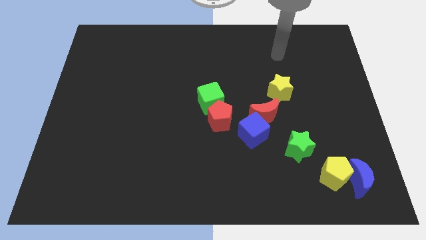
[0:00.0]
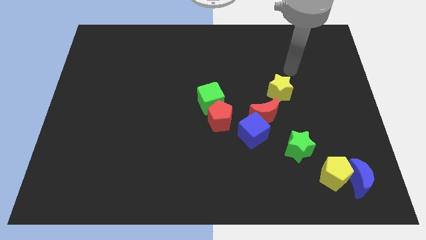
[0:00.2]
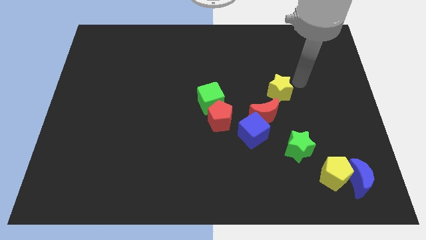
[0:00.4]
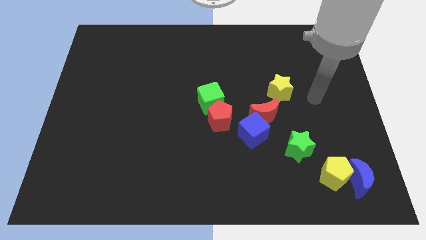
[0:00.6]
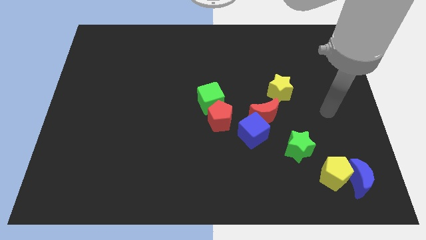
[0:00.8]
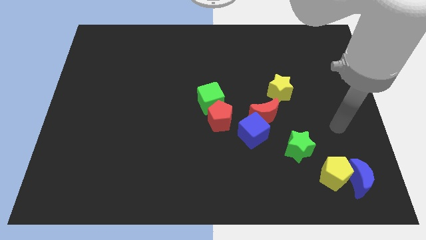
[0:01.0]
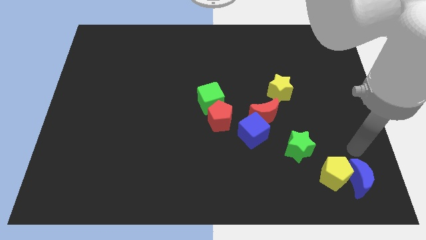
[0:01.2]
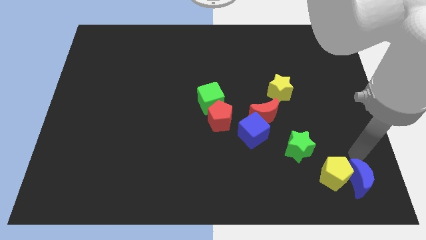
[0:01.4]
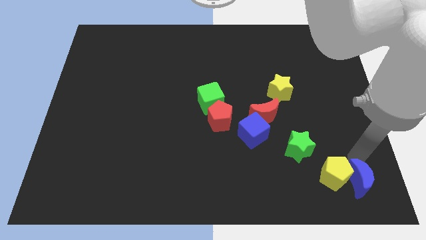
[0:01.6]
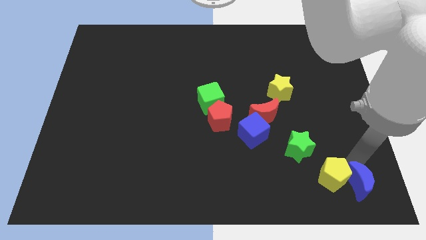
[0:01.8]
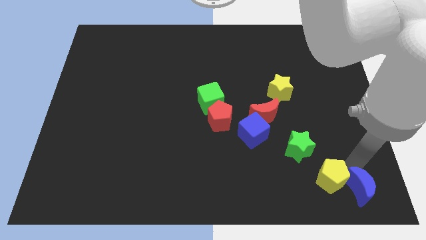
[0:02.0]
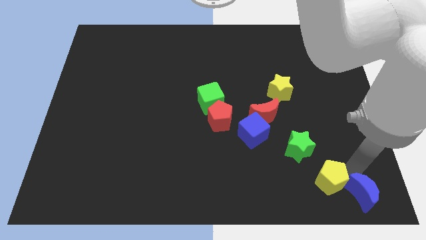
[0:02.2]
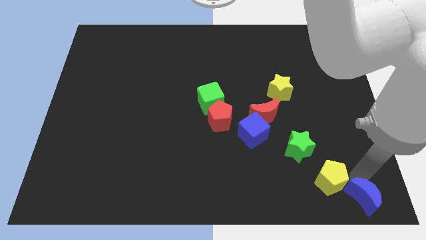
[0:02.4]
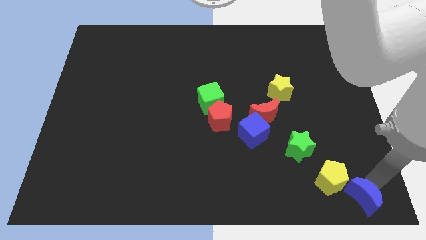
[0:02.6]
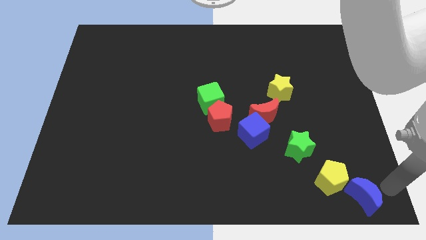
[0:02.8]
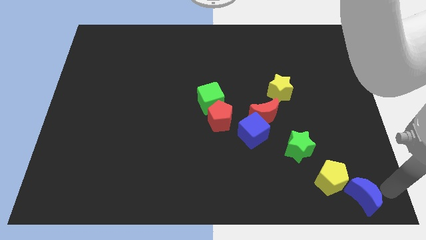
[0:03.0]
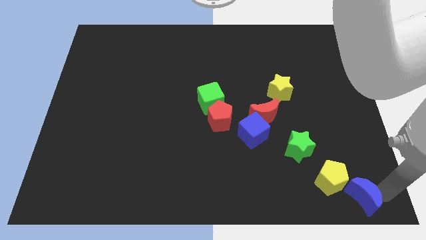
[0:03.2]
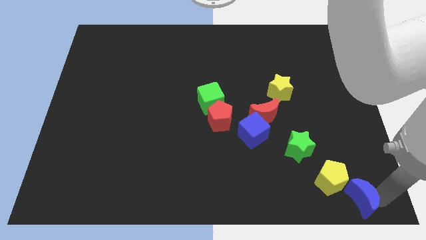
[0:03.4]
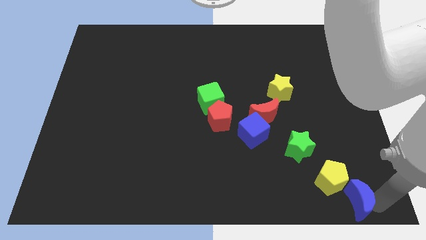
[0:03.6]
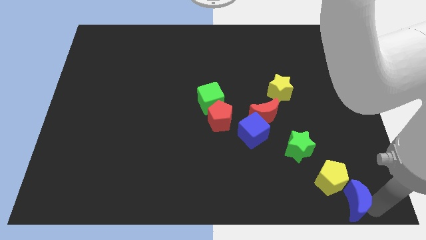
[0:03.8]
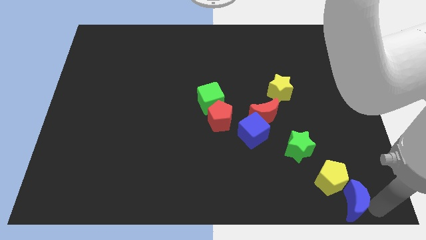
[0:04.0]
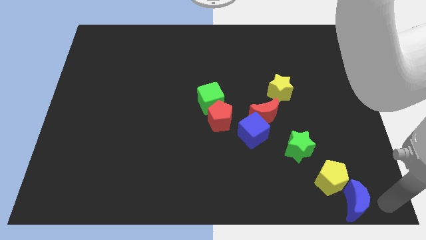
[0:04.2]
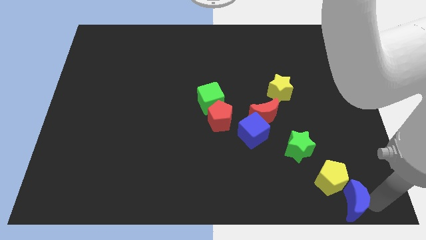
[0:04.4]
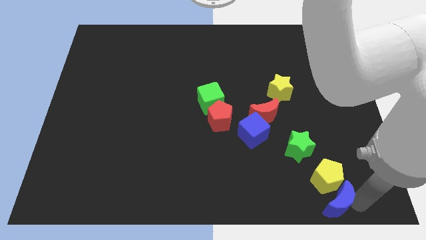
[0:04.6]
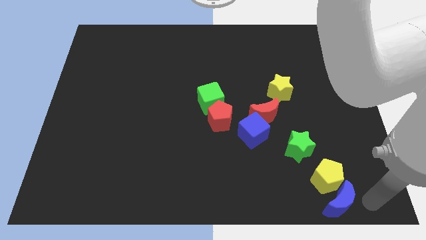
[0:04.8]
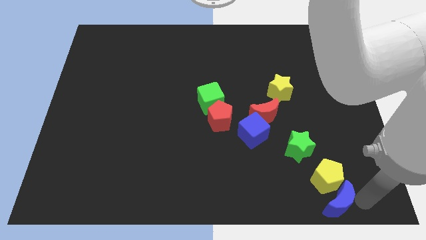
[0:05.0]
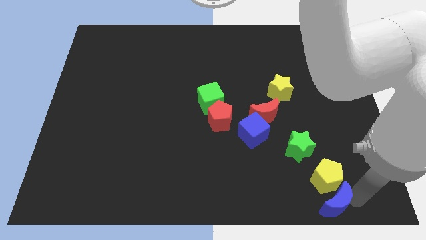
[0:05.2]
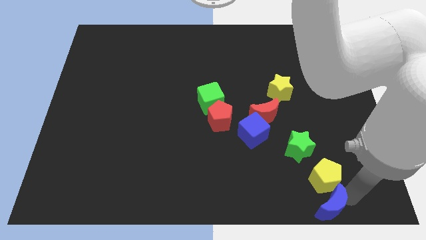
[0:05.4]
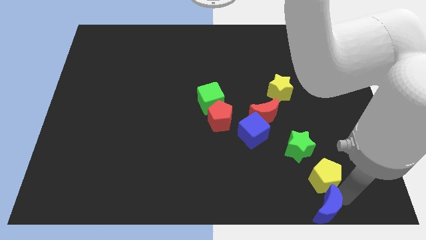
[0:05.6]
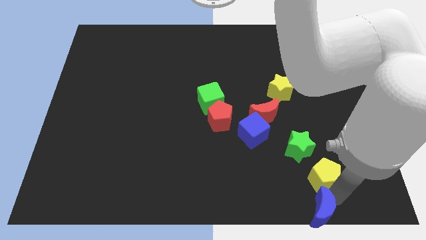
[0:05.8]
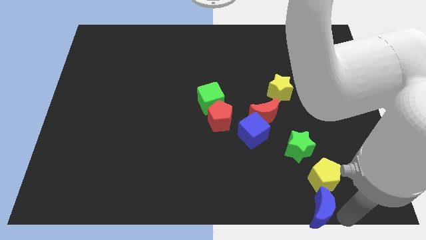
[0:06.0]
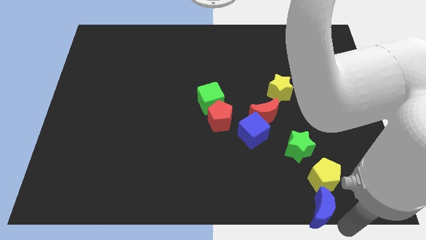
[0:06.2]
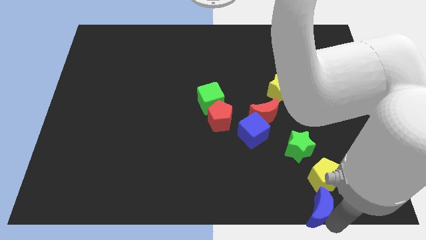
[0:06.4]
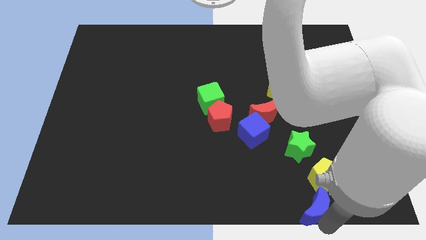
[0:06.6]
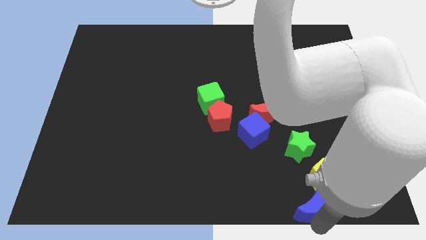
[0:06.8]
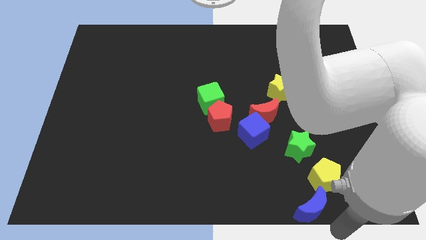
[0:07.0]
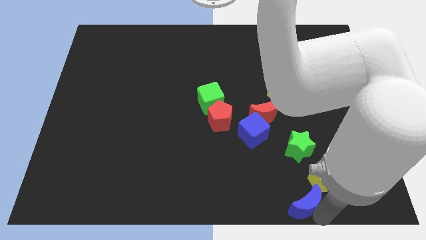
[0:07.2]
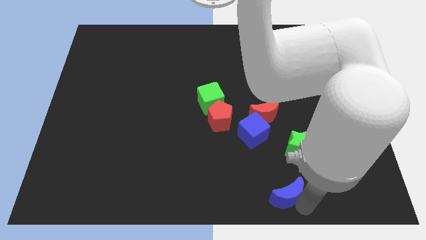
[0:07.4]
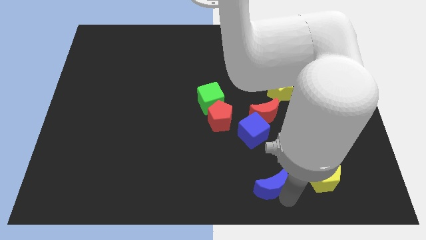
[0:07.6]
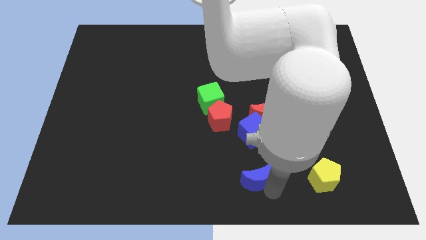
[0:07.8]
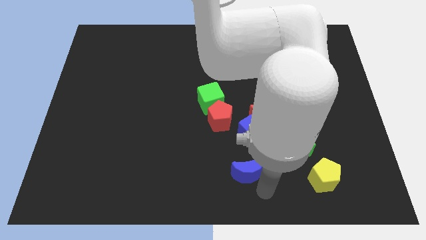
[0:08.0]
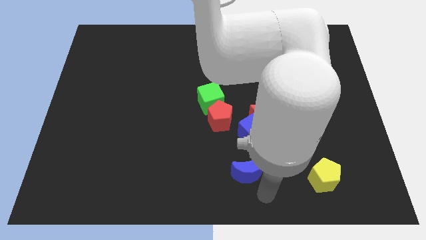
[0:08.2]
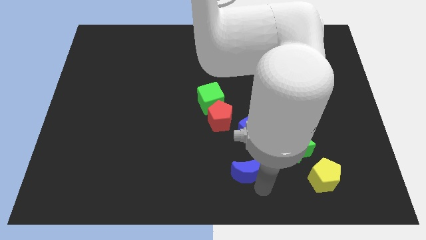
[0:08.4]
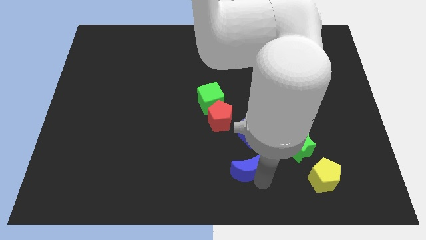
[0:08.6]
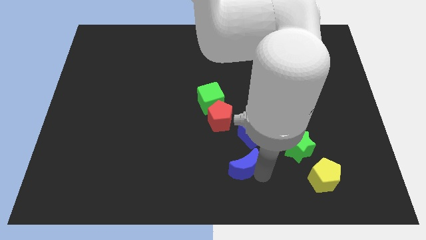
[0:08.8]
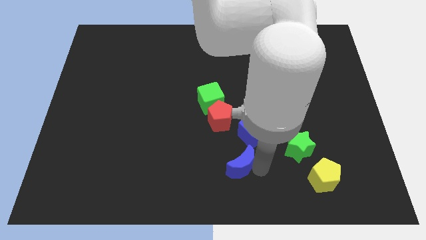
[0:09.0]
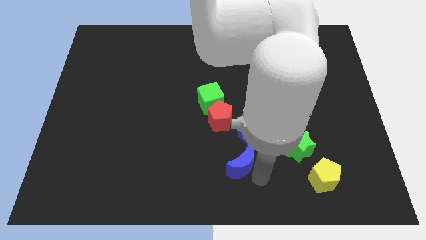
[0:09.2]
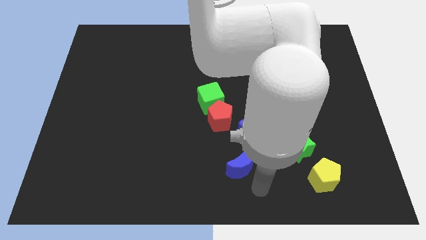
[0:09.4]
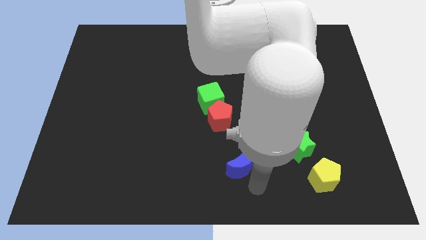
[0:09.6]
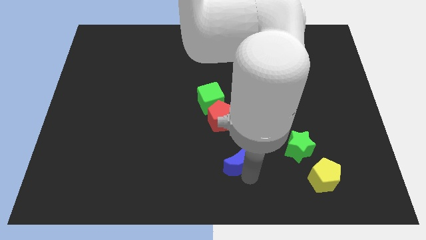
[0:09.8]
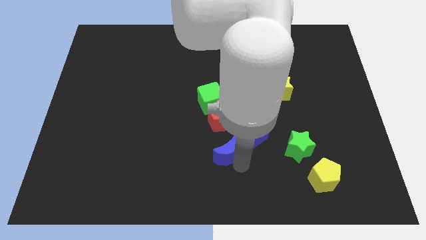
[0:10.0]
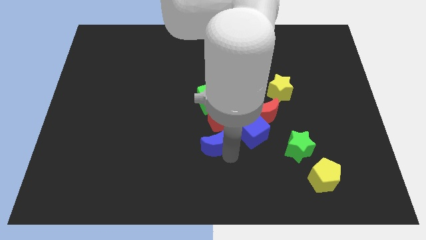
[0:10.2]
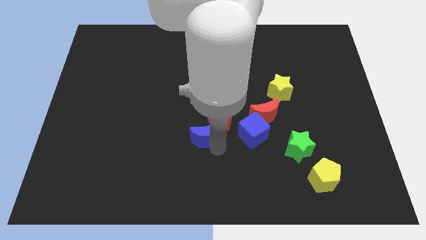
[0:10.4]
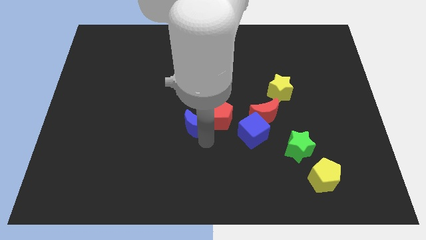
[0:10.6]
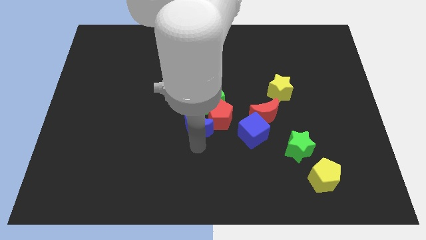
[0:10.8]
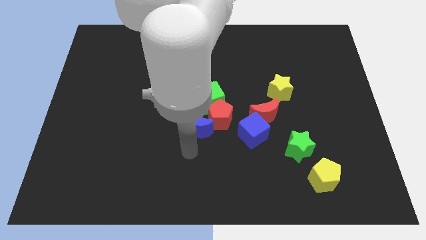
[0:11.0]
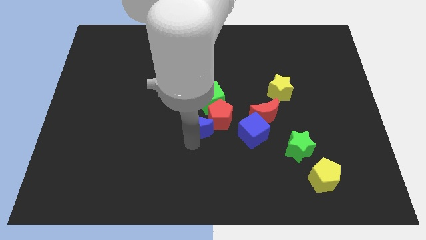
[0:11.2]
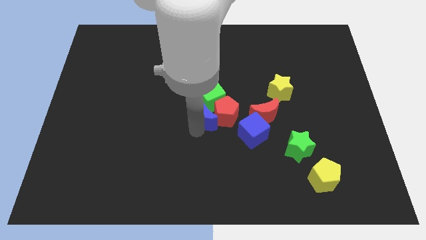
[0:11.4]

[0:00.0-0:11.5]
slide the blue moon to the green cube

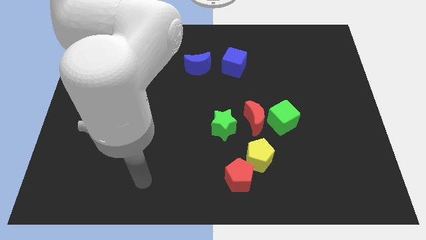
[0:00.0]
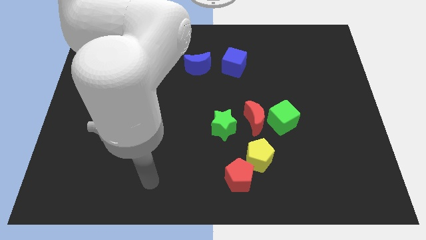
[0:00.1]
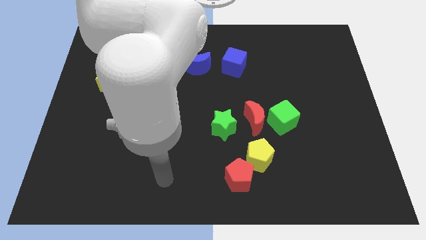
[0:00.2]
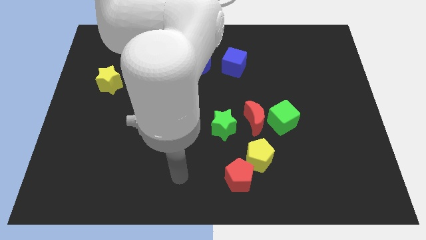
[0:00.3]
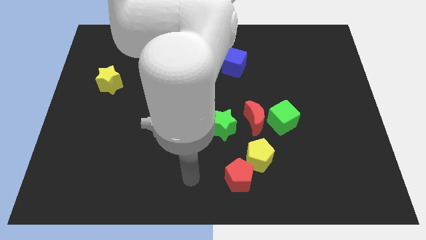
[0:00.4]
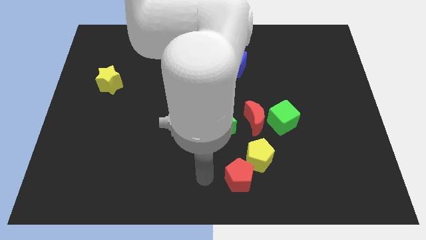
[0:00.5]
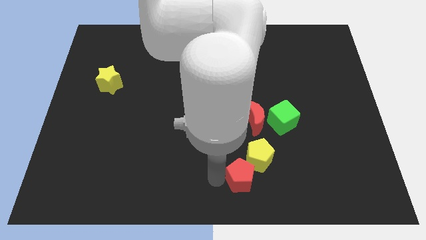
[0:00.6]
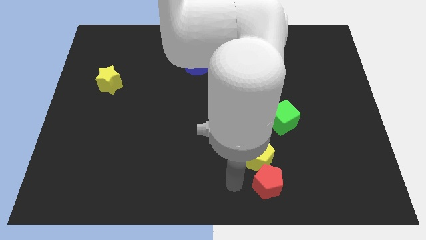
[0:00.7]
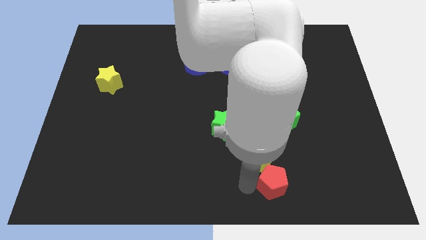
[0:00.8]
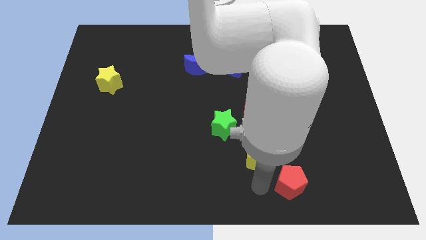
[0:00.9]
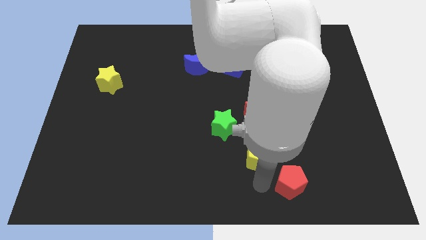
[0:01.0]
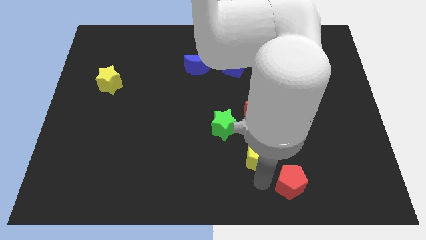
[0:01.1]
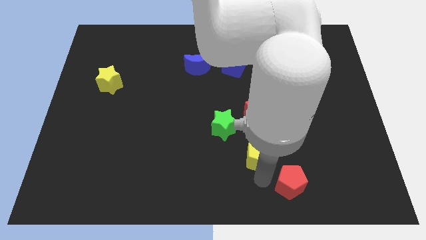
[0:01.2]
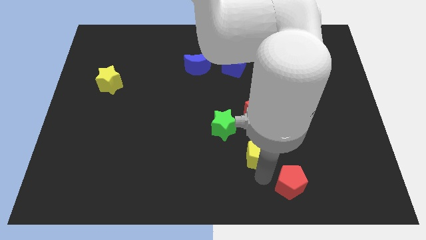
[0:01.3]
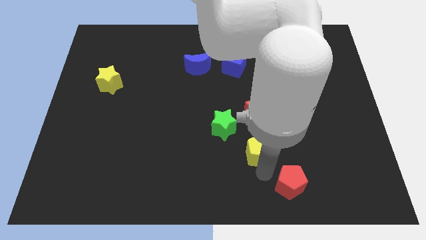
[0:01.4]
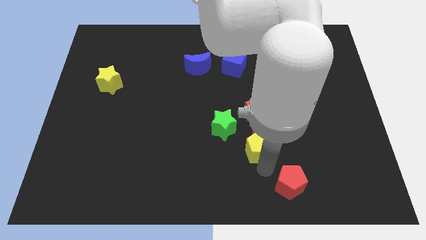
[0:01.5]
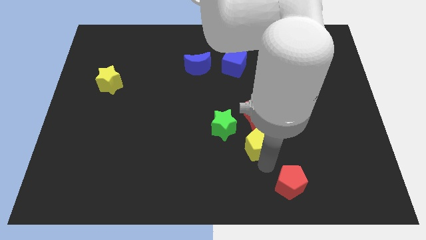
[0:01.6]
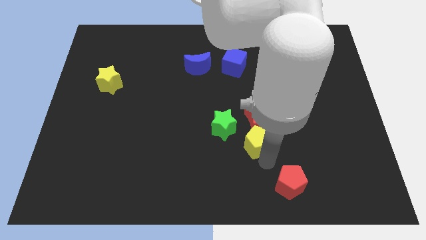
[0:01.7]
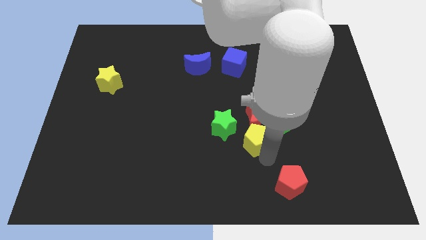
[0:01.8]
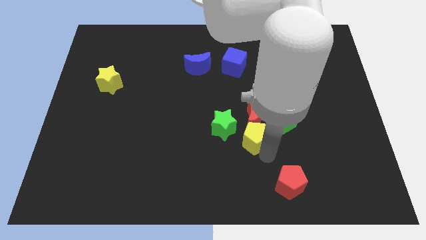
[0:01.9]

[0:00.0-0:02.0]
slide the yellow pentagon towards the red moon

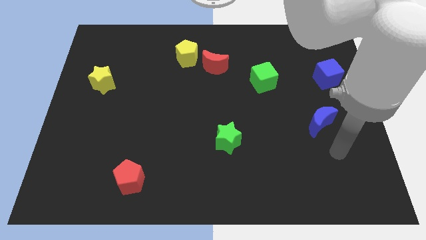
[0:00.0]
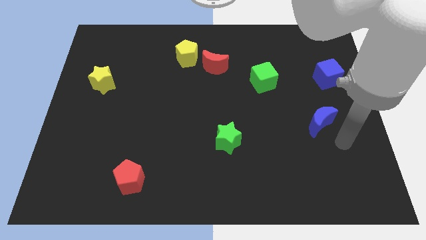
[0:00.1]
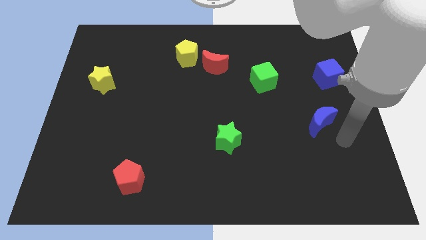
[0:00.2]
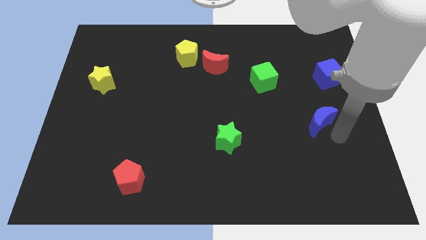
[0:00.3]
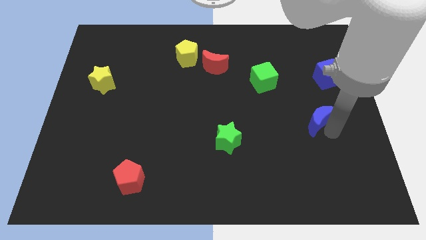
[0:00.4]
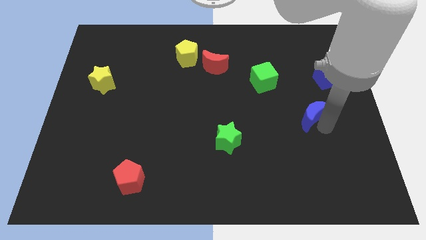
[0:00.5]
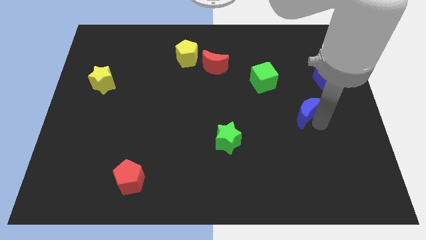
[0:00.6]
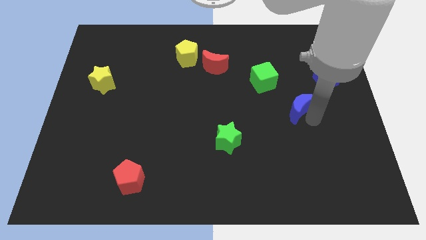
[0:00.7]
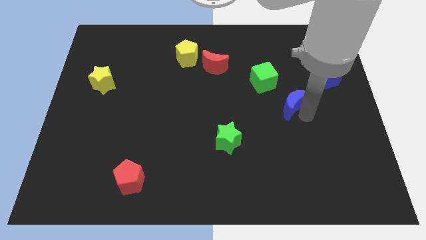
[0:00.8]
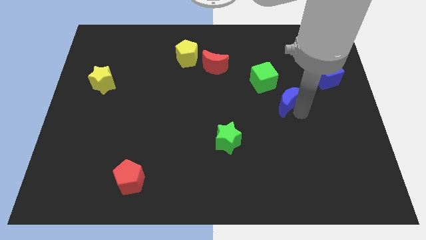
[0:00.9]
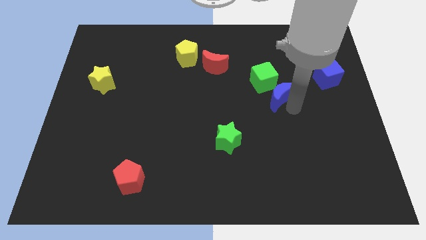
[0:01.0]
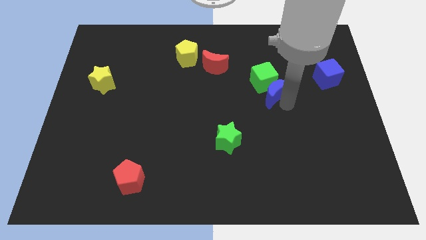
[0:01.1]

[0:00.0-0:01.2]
move the blue moon close to the green cube
